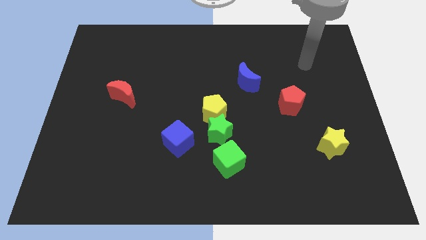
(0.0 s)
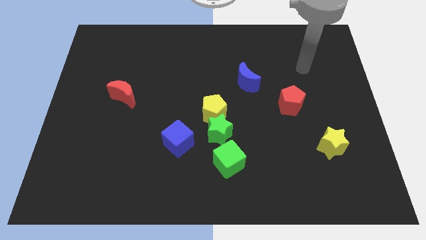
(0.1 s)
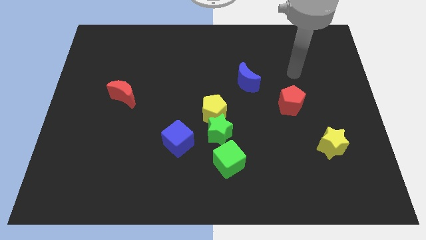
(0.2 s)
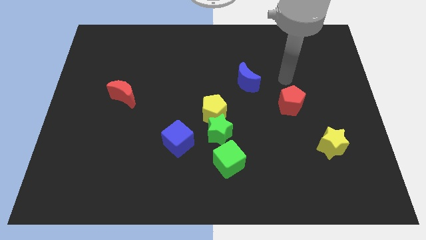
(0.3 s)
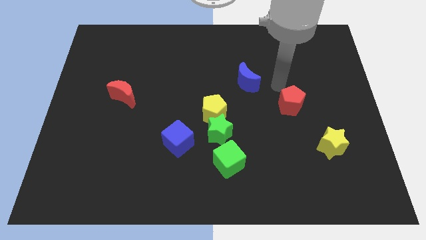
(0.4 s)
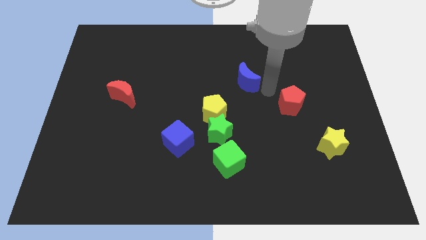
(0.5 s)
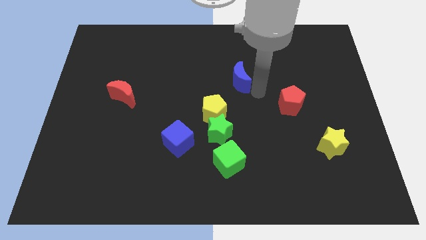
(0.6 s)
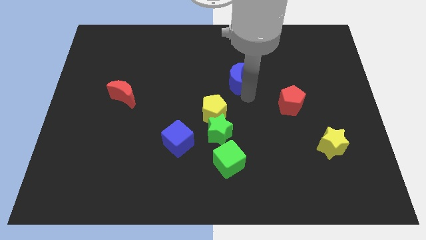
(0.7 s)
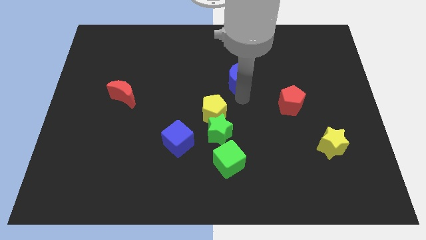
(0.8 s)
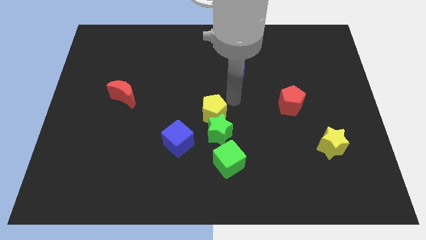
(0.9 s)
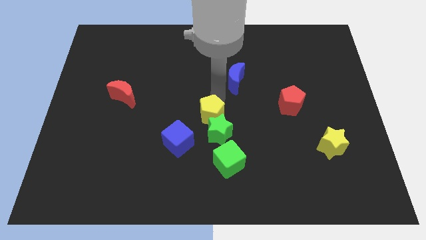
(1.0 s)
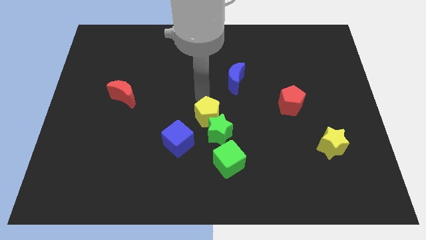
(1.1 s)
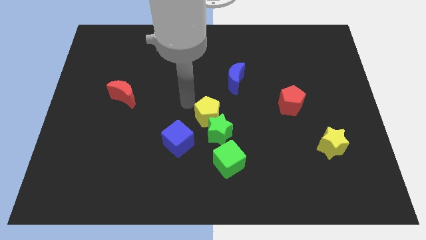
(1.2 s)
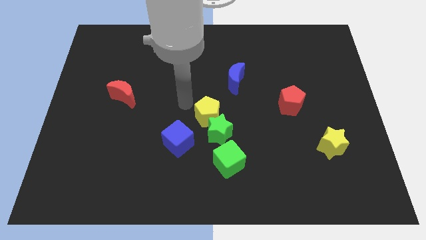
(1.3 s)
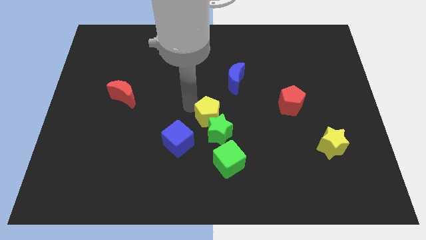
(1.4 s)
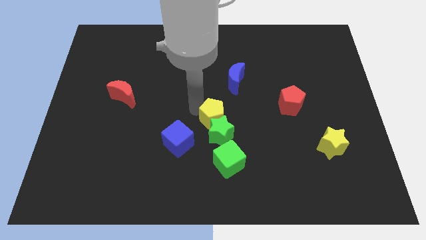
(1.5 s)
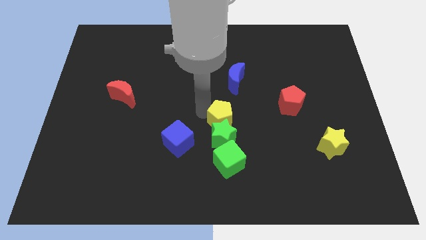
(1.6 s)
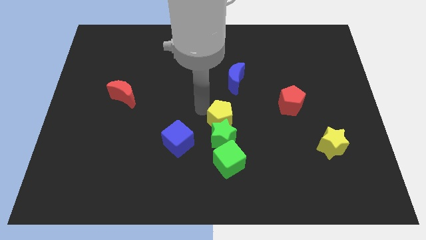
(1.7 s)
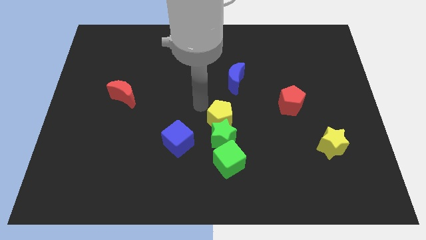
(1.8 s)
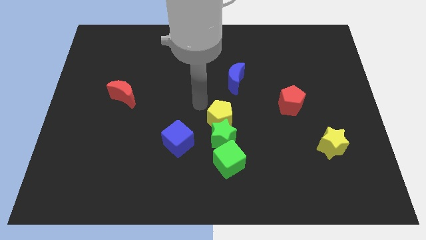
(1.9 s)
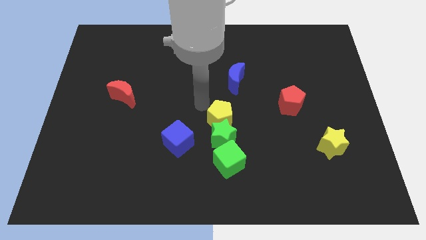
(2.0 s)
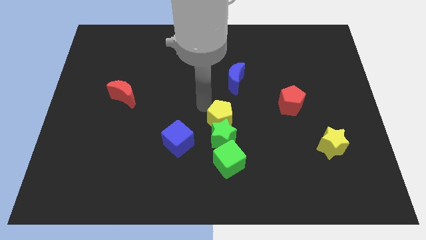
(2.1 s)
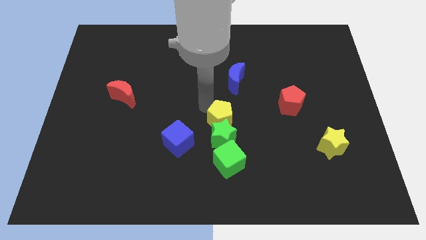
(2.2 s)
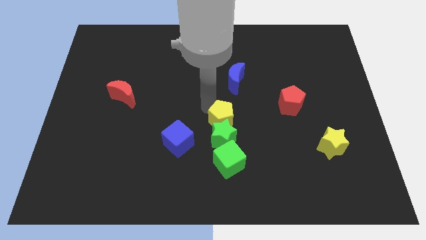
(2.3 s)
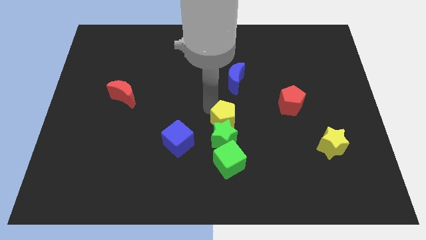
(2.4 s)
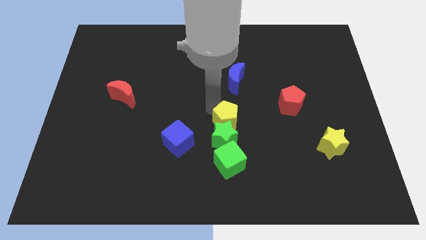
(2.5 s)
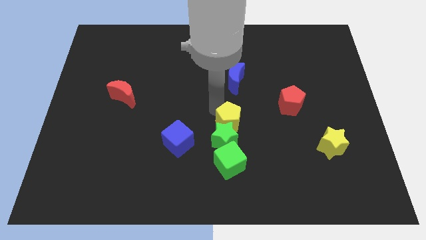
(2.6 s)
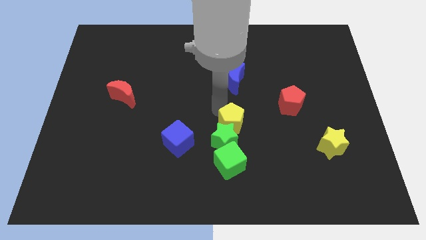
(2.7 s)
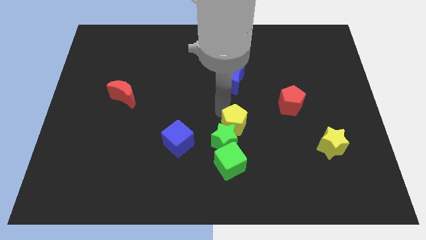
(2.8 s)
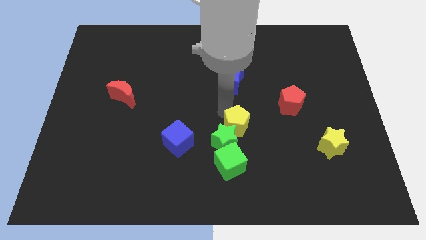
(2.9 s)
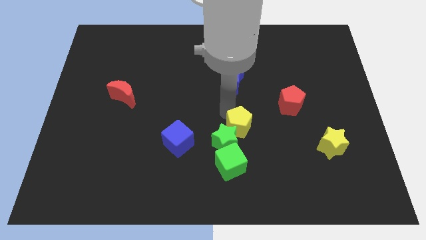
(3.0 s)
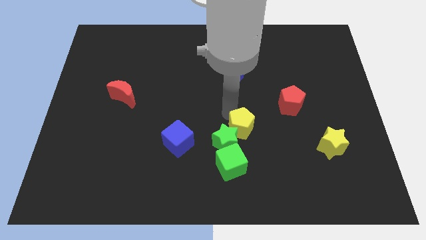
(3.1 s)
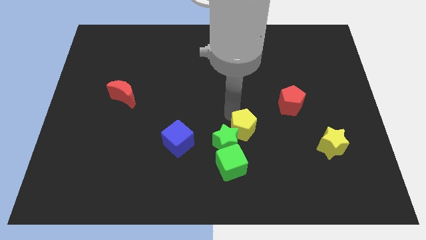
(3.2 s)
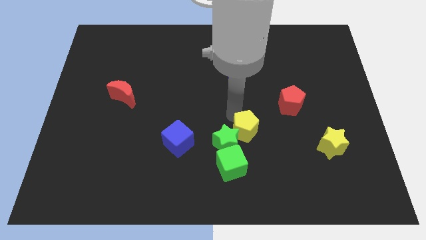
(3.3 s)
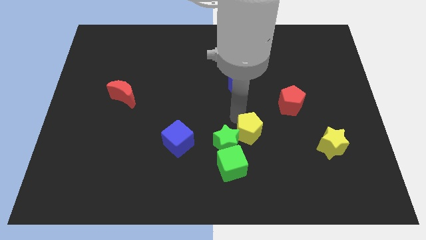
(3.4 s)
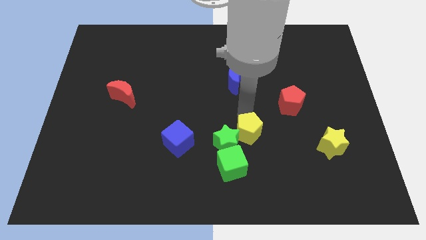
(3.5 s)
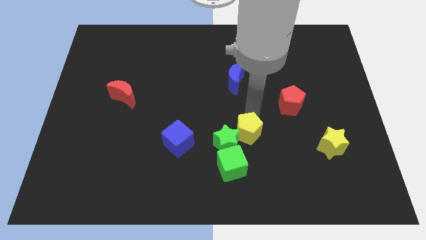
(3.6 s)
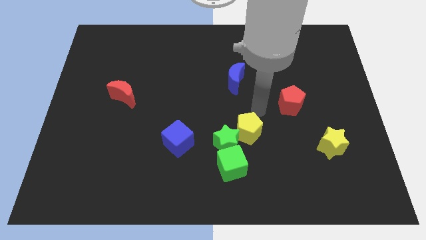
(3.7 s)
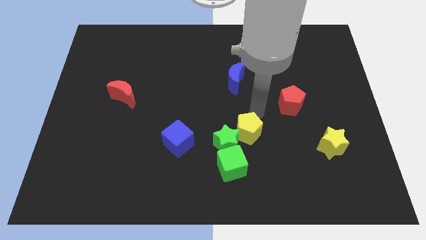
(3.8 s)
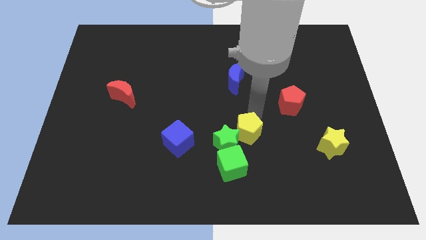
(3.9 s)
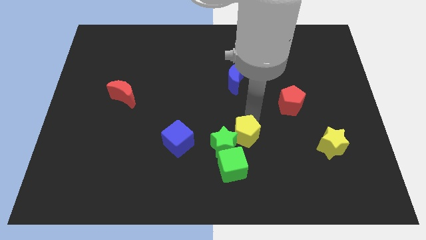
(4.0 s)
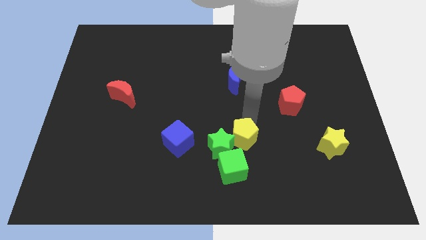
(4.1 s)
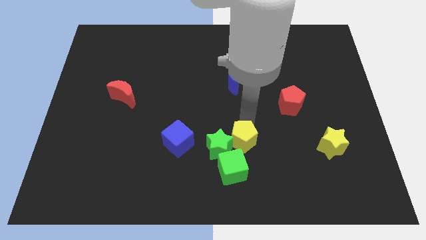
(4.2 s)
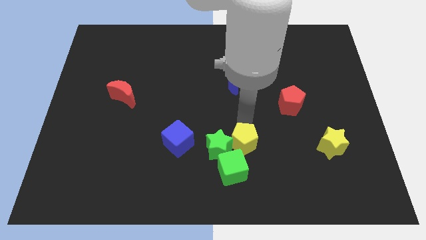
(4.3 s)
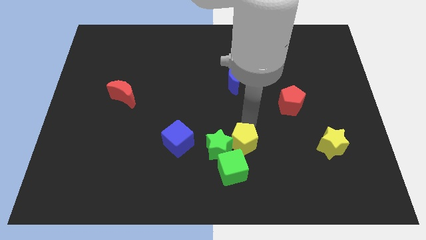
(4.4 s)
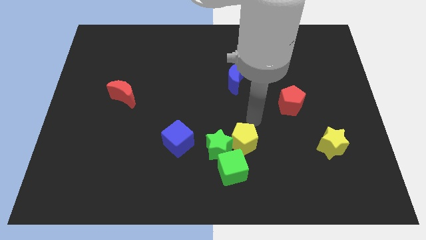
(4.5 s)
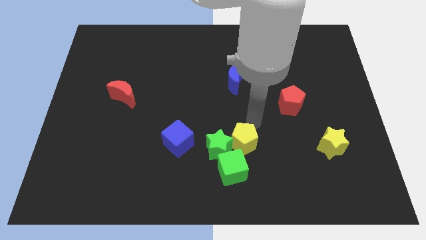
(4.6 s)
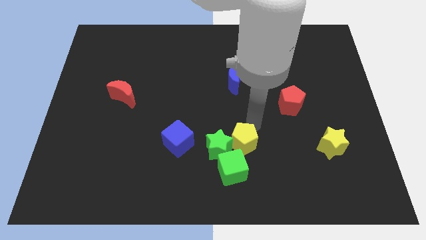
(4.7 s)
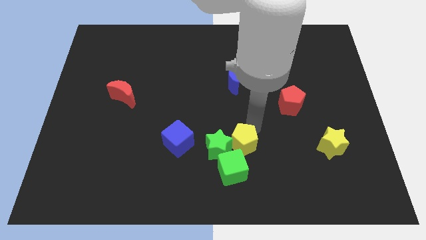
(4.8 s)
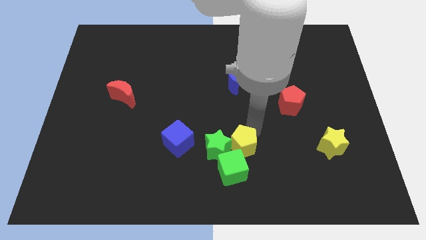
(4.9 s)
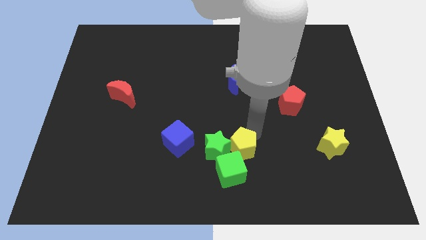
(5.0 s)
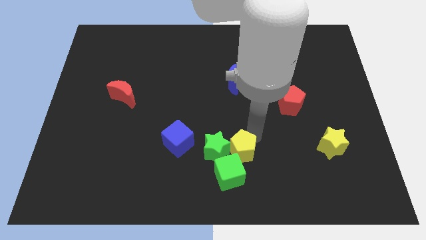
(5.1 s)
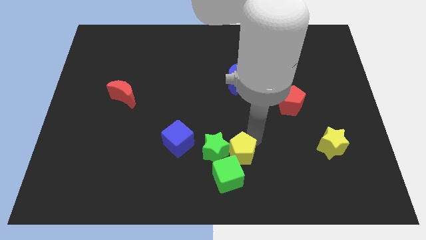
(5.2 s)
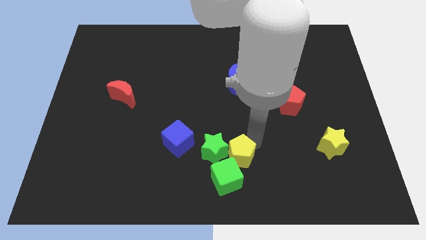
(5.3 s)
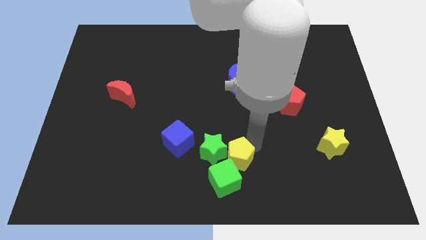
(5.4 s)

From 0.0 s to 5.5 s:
put the yellow pentagon next to the green cube

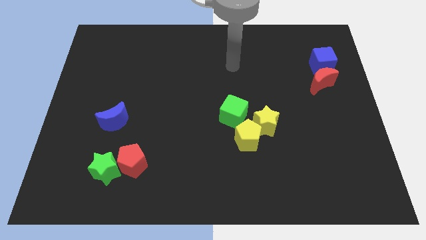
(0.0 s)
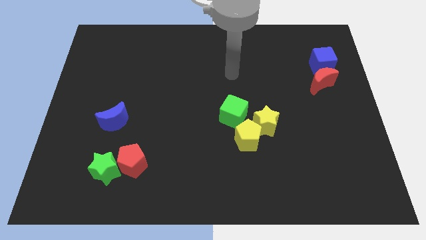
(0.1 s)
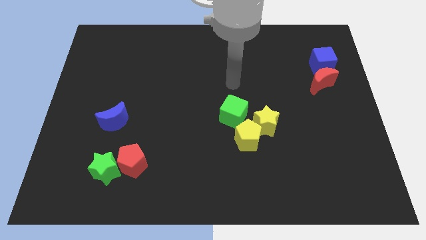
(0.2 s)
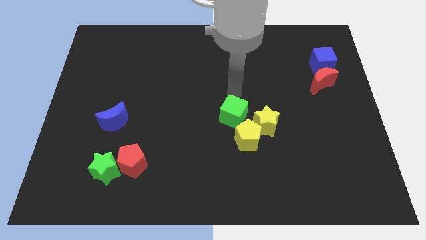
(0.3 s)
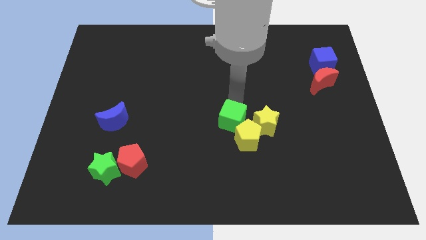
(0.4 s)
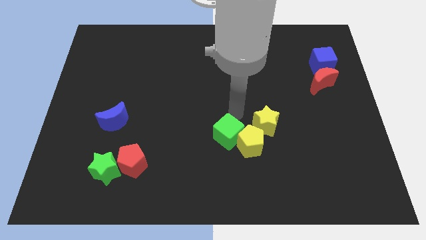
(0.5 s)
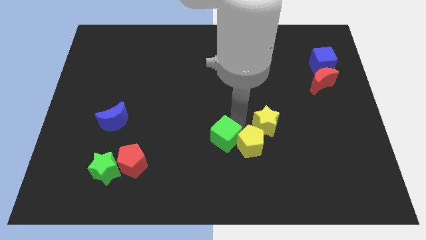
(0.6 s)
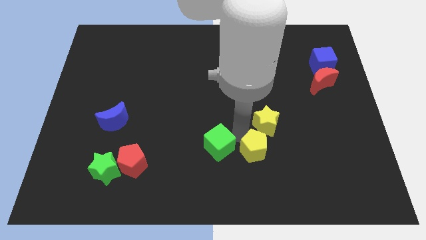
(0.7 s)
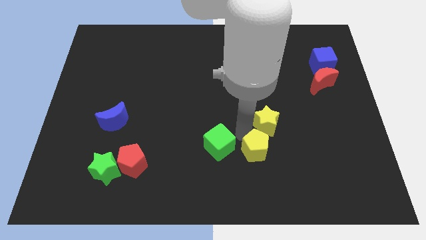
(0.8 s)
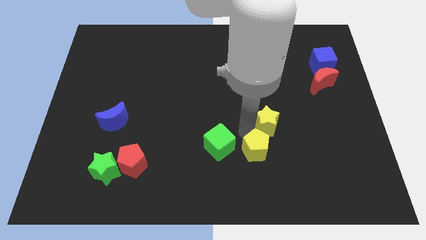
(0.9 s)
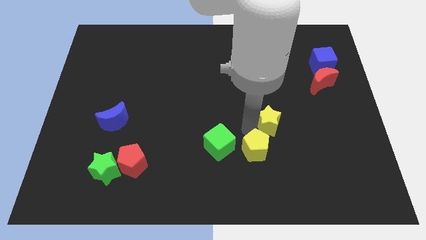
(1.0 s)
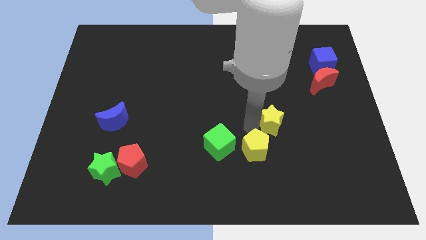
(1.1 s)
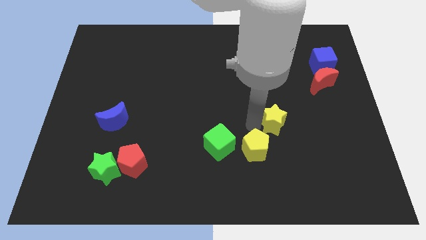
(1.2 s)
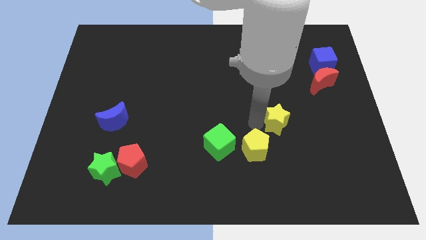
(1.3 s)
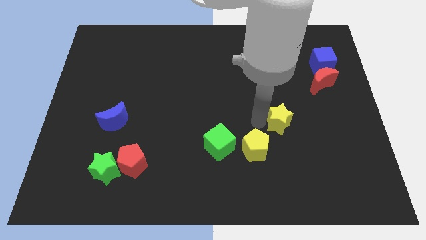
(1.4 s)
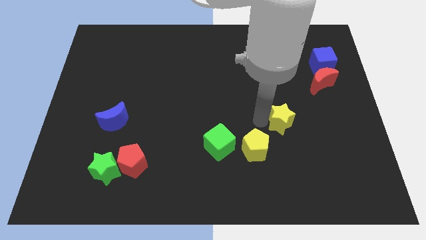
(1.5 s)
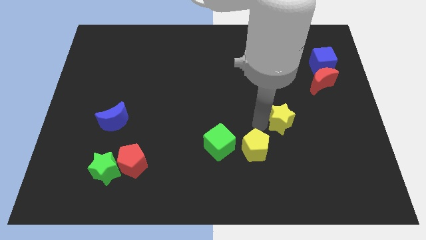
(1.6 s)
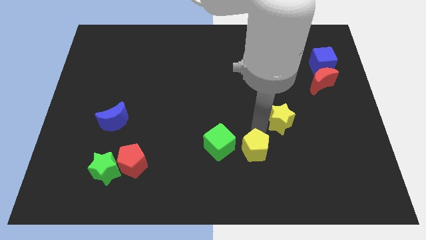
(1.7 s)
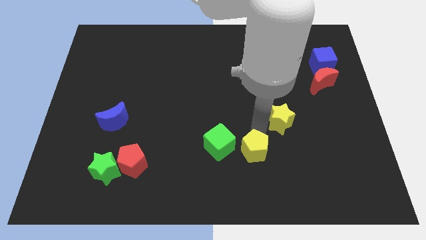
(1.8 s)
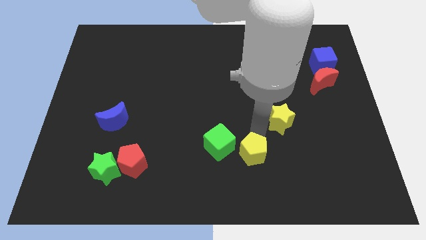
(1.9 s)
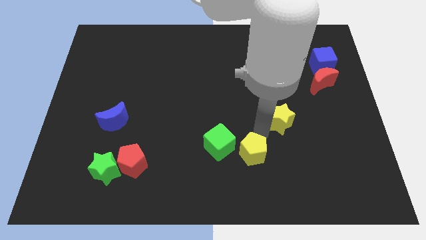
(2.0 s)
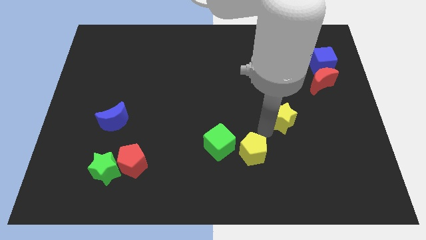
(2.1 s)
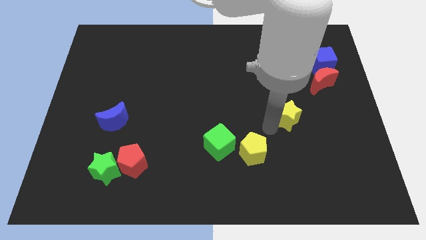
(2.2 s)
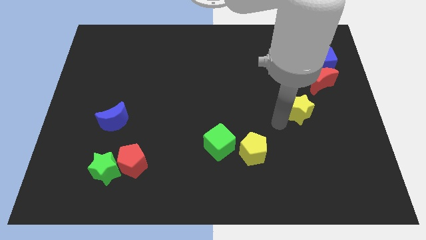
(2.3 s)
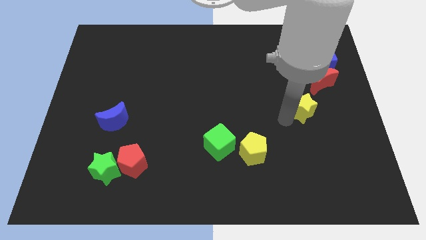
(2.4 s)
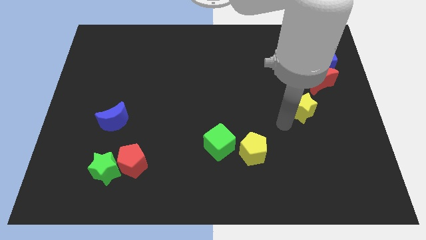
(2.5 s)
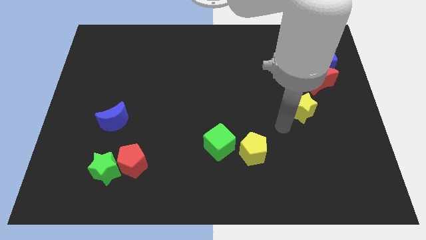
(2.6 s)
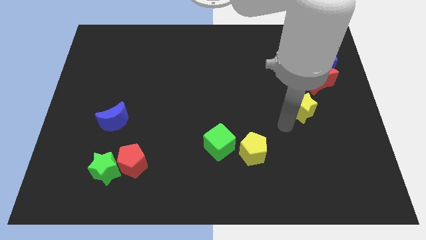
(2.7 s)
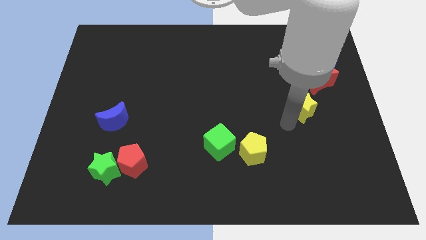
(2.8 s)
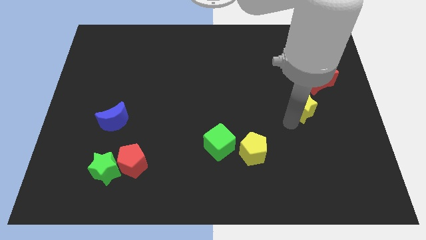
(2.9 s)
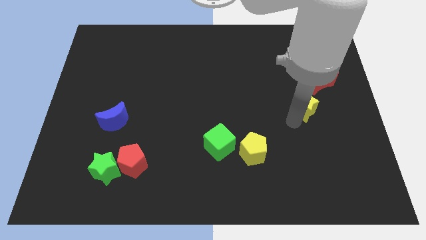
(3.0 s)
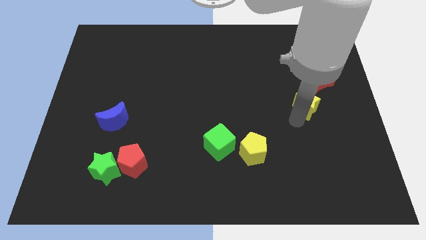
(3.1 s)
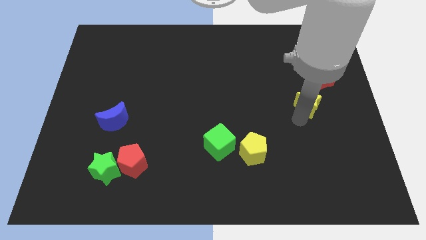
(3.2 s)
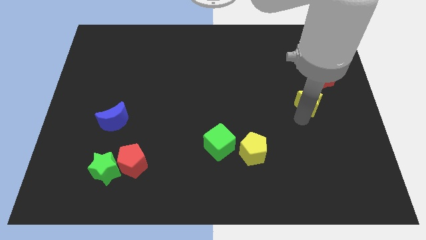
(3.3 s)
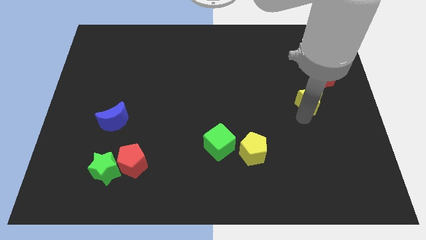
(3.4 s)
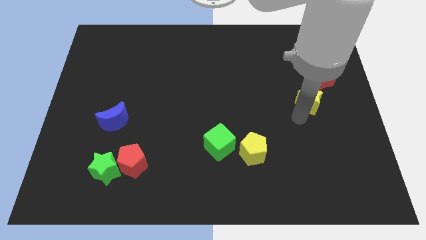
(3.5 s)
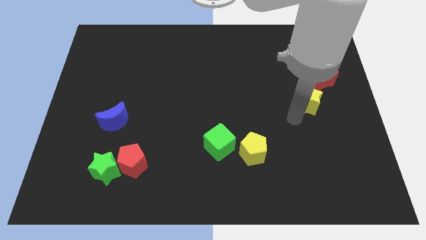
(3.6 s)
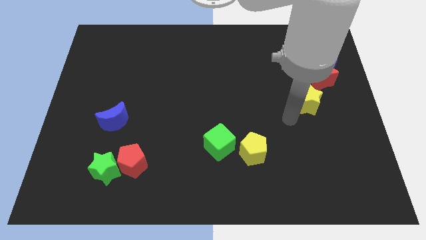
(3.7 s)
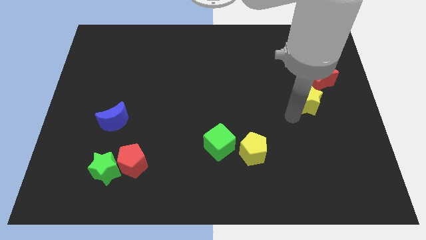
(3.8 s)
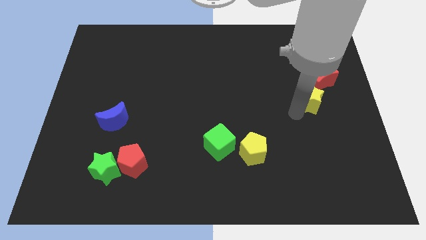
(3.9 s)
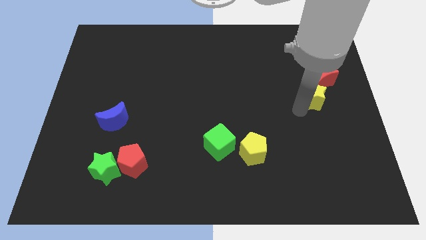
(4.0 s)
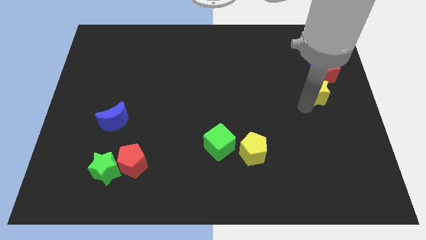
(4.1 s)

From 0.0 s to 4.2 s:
push the yellow star towards the red moon
